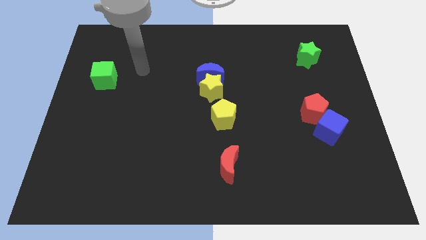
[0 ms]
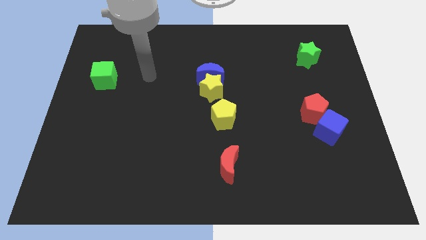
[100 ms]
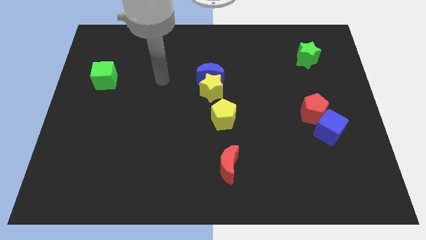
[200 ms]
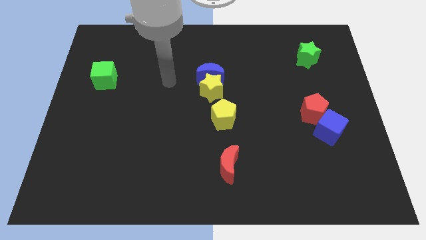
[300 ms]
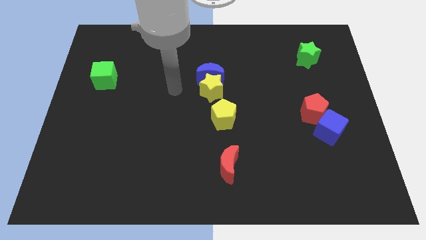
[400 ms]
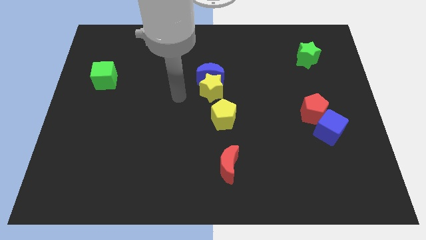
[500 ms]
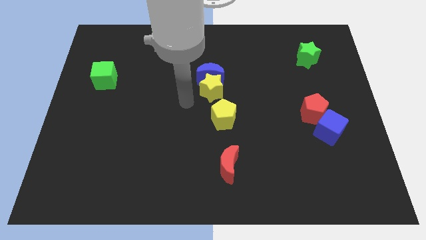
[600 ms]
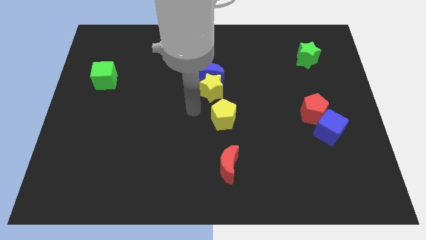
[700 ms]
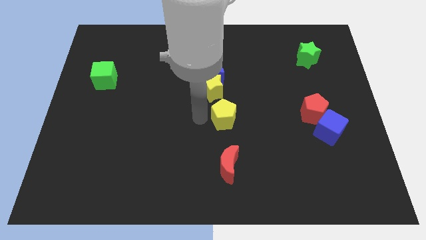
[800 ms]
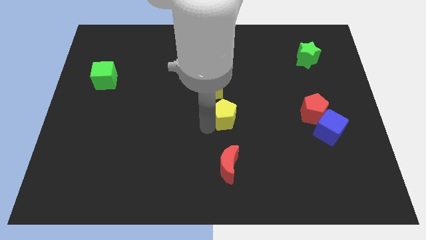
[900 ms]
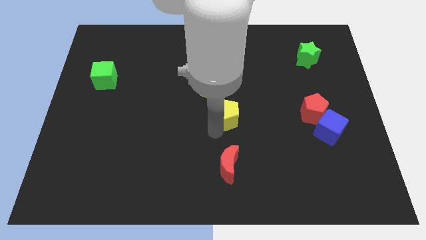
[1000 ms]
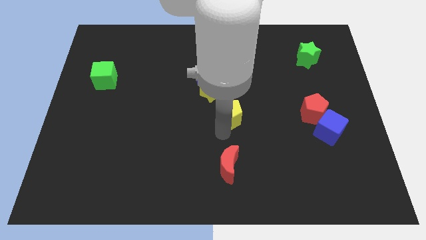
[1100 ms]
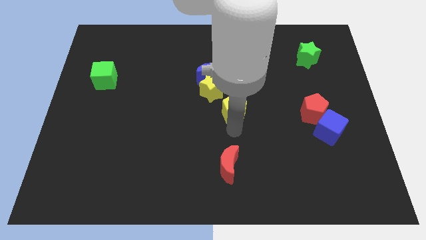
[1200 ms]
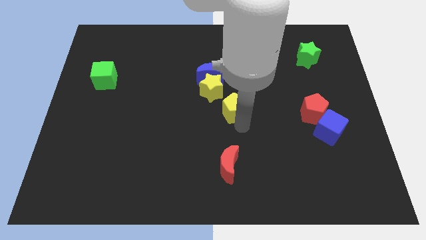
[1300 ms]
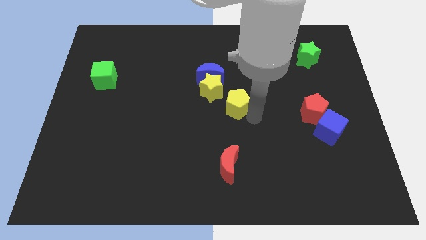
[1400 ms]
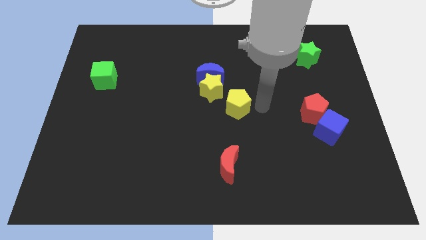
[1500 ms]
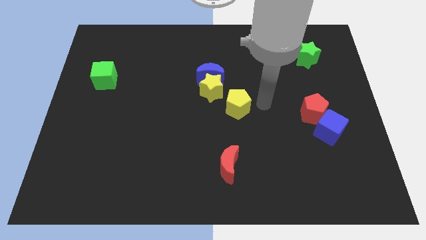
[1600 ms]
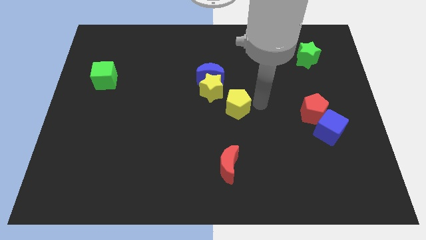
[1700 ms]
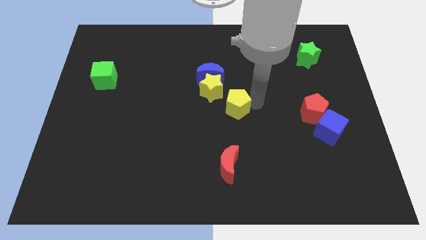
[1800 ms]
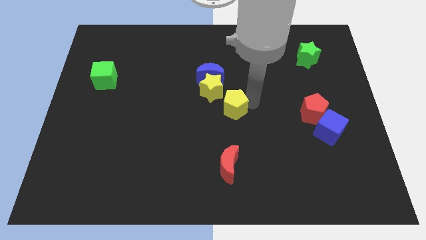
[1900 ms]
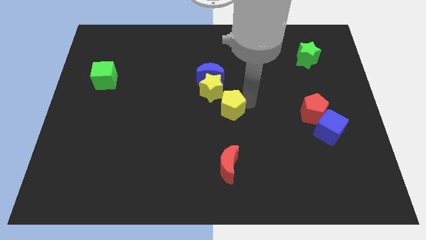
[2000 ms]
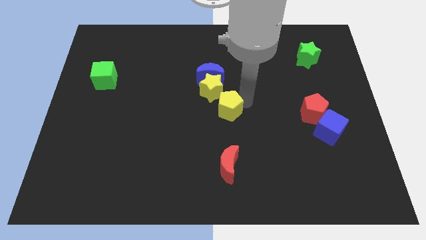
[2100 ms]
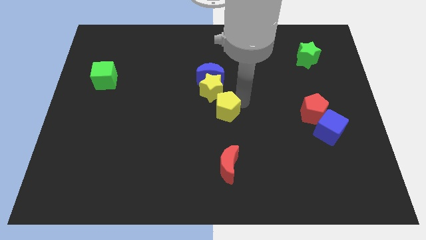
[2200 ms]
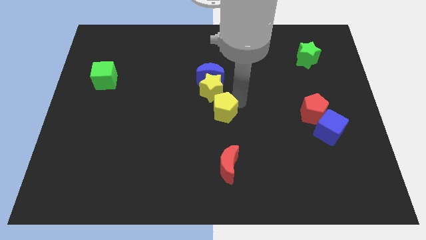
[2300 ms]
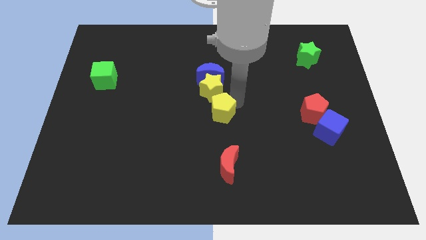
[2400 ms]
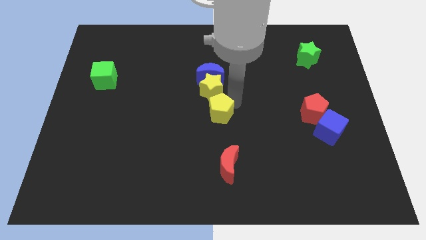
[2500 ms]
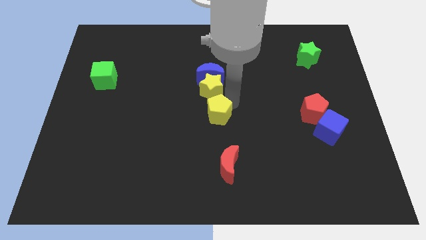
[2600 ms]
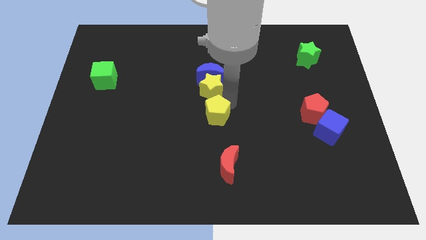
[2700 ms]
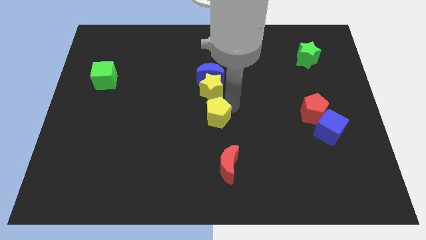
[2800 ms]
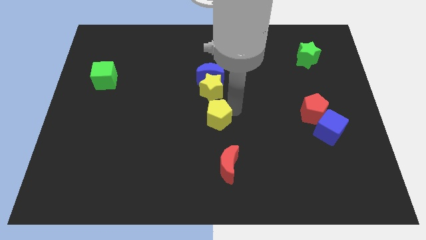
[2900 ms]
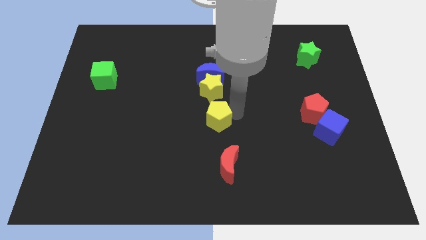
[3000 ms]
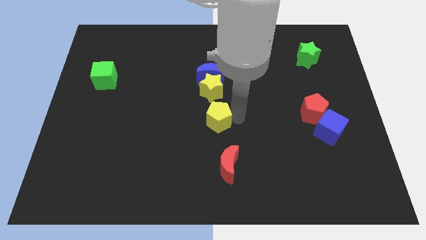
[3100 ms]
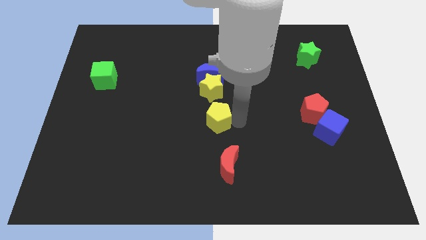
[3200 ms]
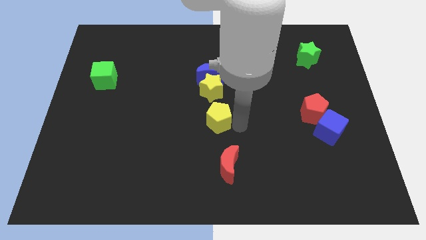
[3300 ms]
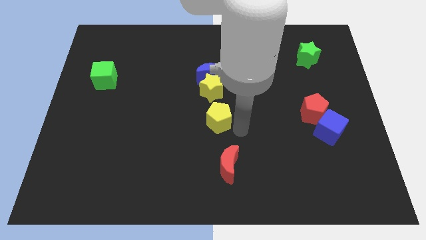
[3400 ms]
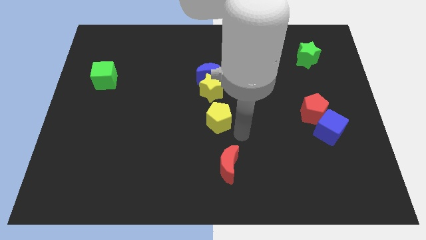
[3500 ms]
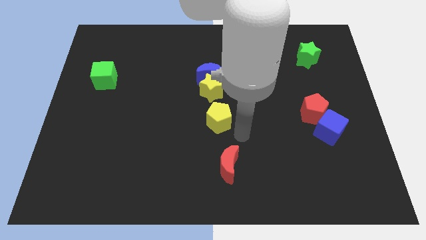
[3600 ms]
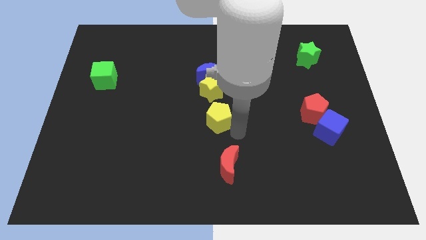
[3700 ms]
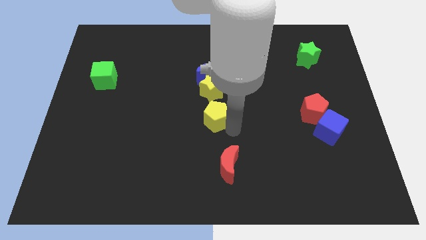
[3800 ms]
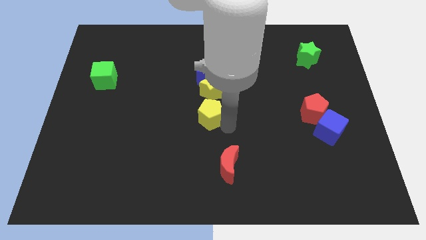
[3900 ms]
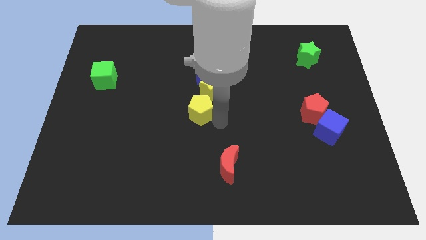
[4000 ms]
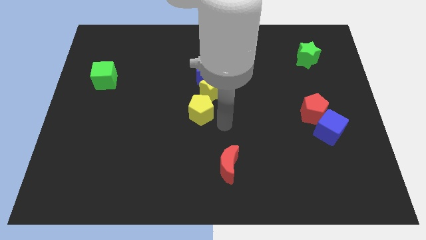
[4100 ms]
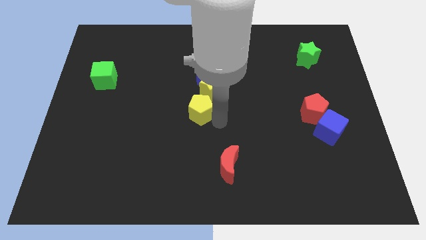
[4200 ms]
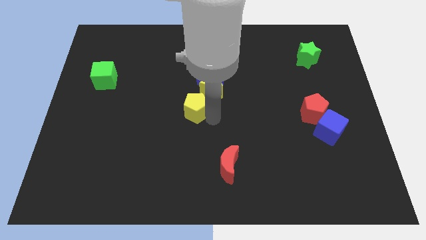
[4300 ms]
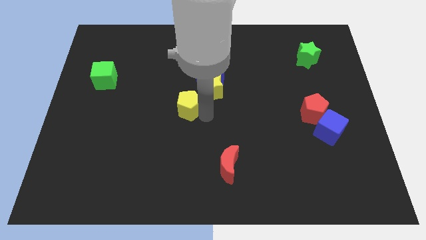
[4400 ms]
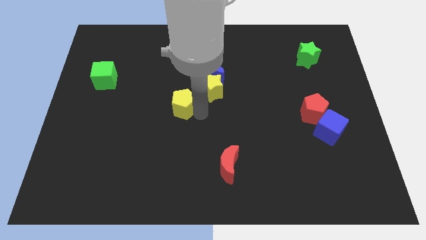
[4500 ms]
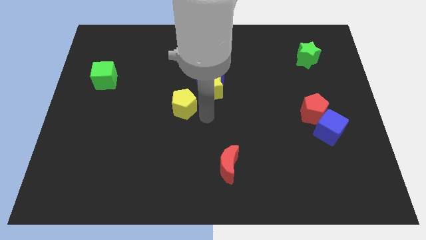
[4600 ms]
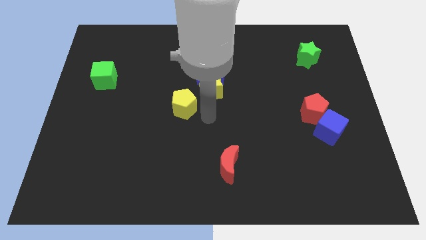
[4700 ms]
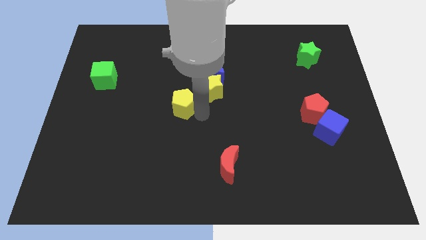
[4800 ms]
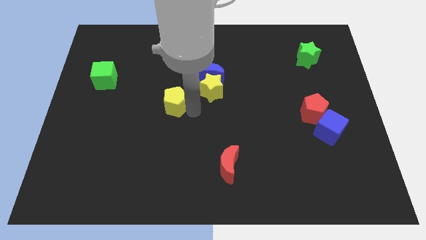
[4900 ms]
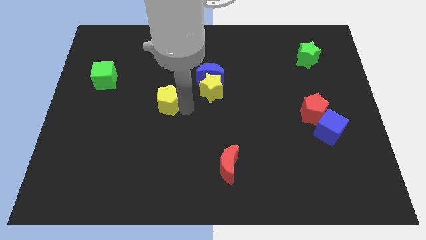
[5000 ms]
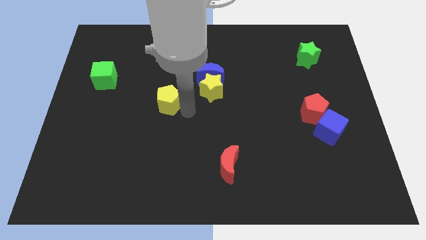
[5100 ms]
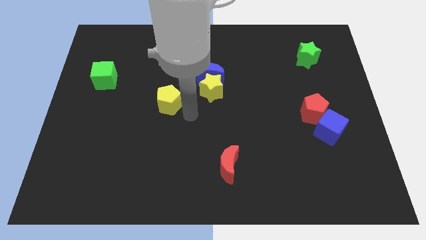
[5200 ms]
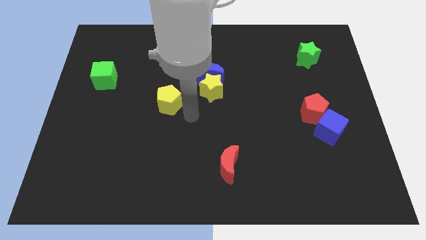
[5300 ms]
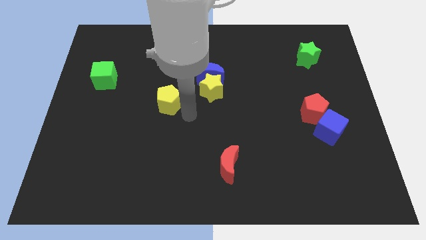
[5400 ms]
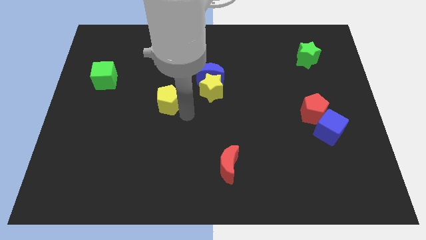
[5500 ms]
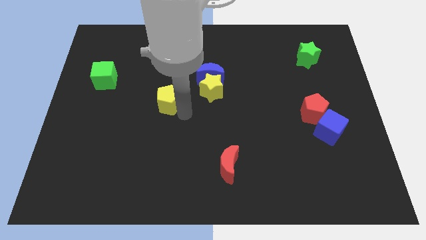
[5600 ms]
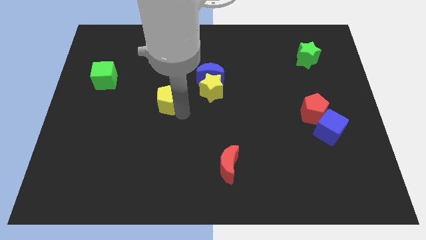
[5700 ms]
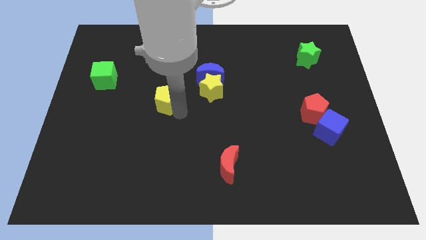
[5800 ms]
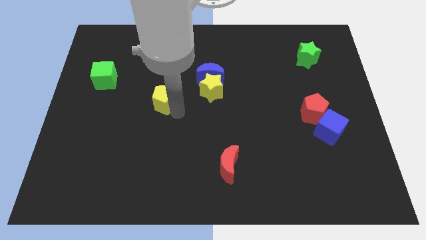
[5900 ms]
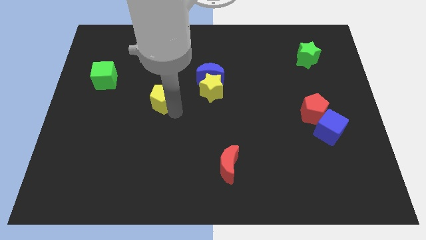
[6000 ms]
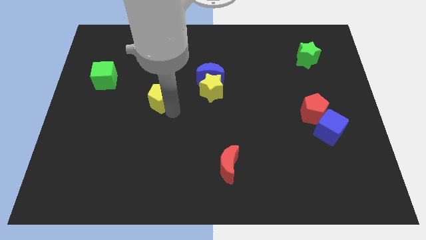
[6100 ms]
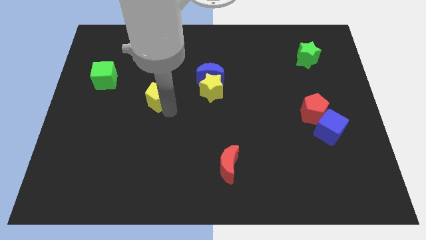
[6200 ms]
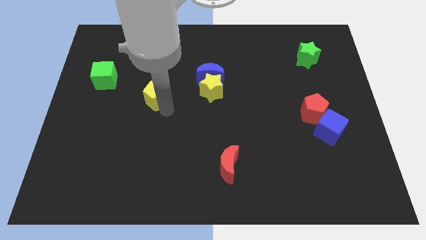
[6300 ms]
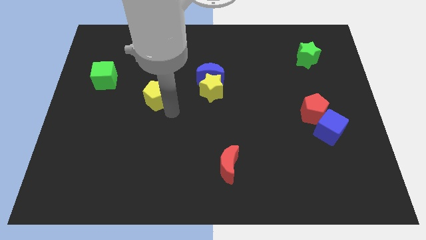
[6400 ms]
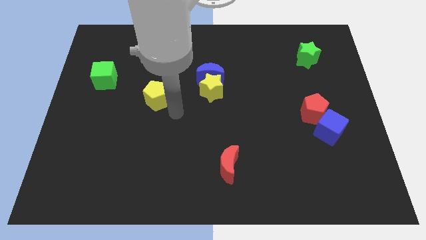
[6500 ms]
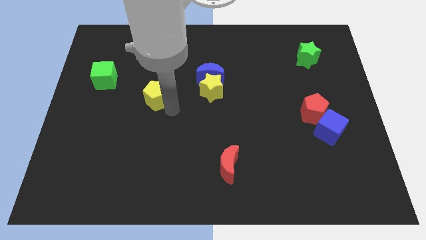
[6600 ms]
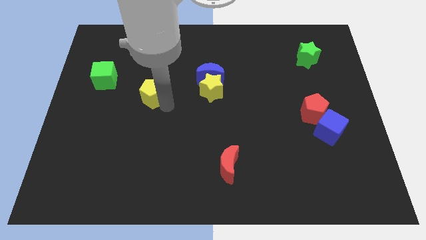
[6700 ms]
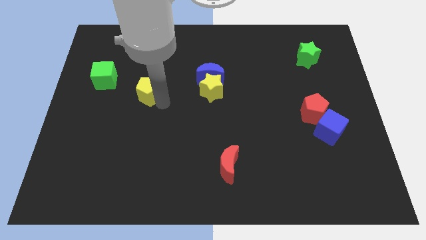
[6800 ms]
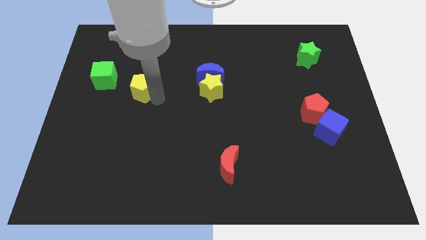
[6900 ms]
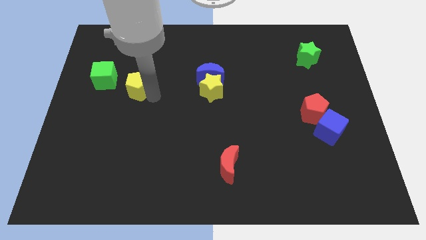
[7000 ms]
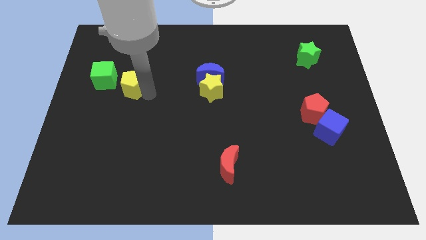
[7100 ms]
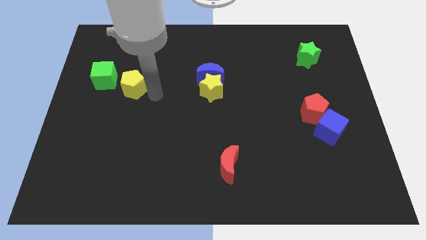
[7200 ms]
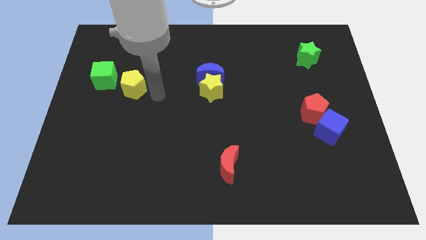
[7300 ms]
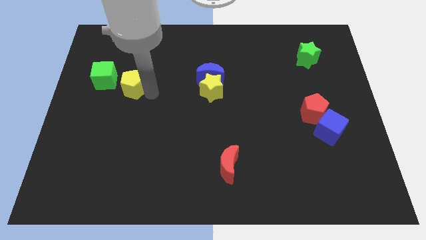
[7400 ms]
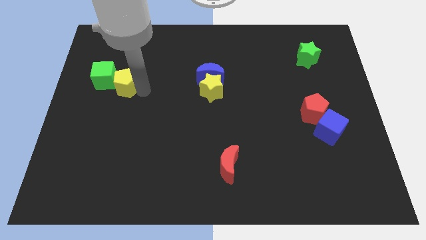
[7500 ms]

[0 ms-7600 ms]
slide the yellow pentagon close to the green cube

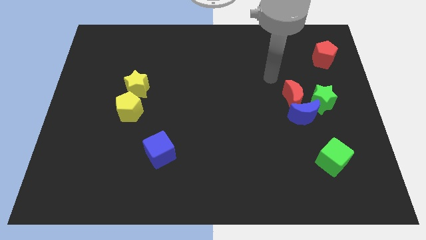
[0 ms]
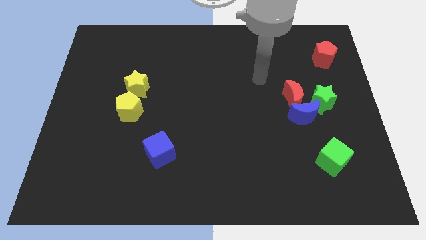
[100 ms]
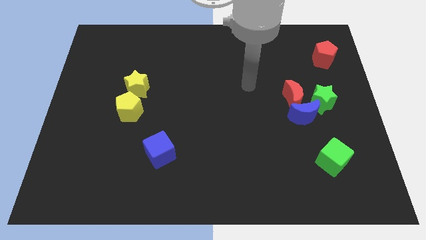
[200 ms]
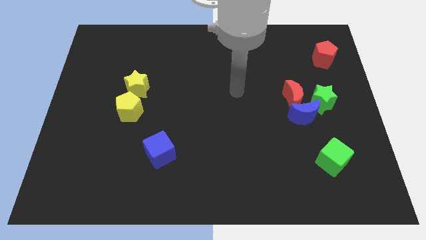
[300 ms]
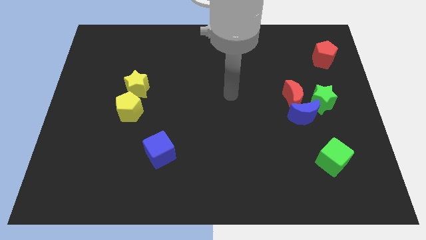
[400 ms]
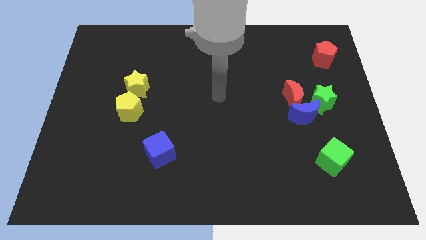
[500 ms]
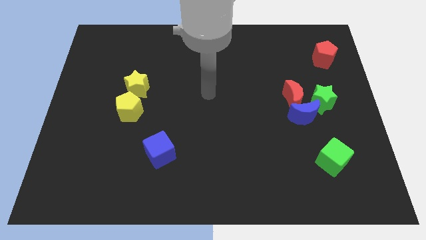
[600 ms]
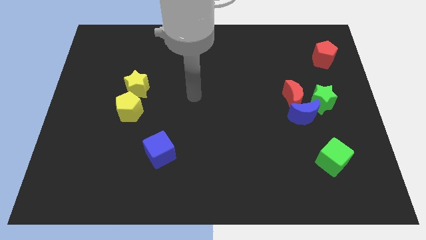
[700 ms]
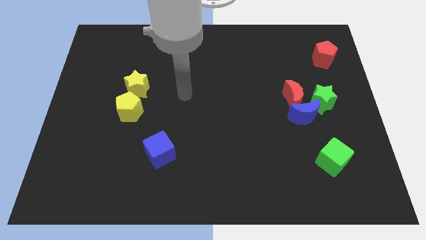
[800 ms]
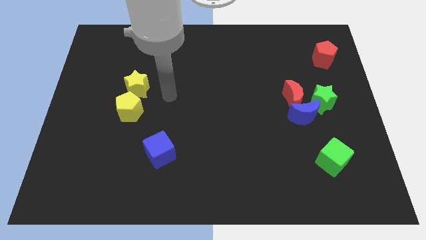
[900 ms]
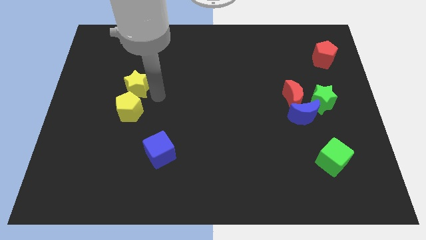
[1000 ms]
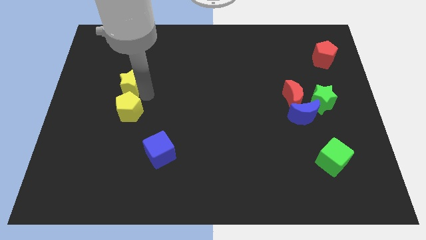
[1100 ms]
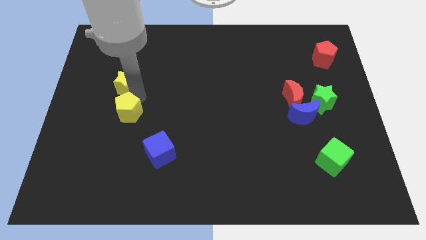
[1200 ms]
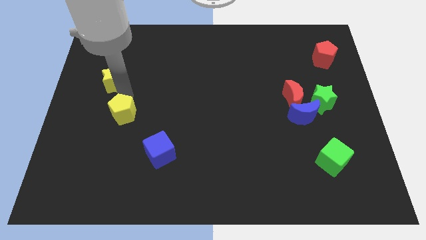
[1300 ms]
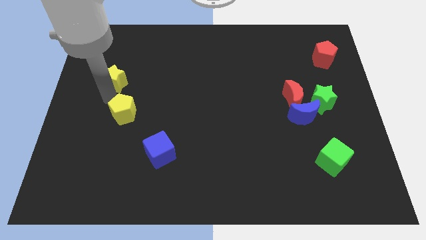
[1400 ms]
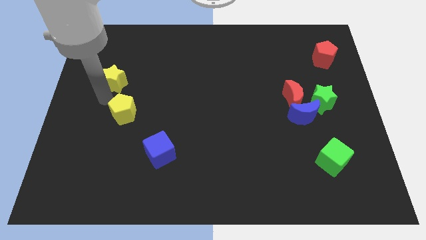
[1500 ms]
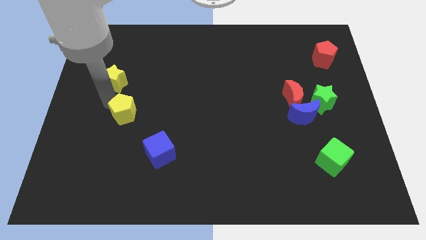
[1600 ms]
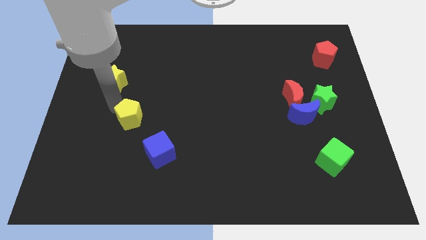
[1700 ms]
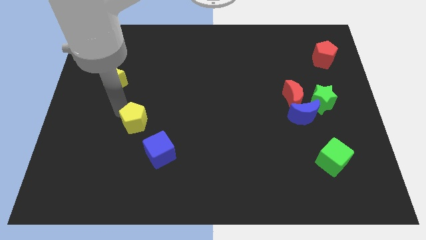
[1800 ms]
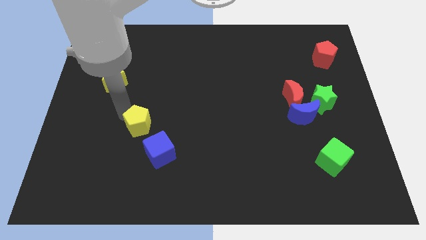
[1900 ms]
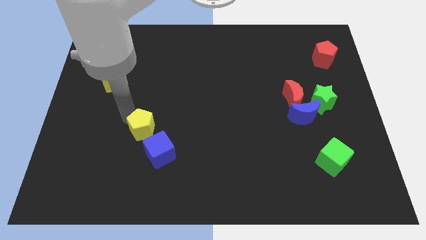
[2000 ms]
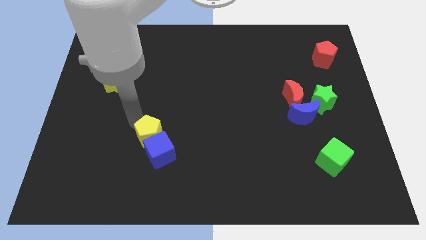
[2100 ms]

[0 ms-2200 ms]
slide the yellow pentagon to the blue cube
